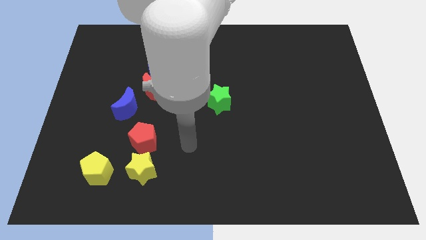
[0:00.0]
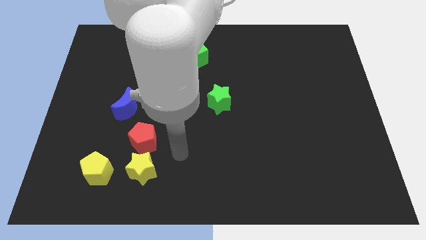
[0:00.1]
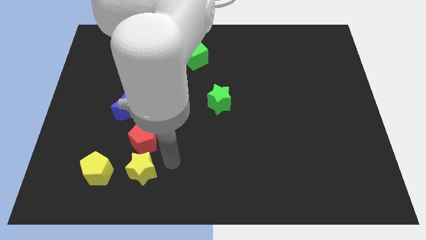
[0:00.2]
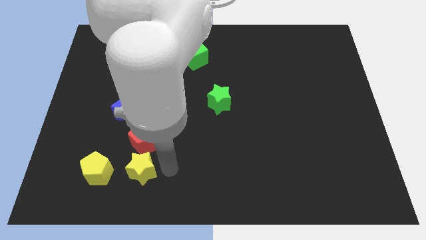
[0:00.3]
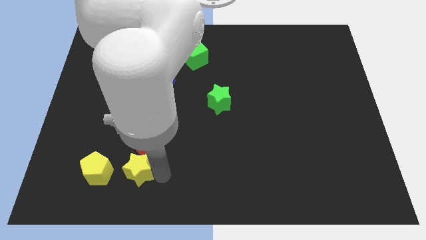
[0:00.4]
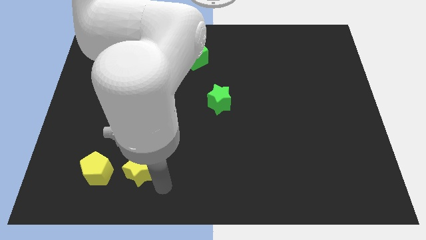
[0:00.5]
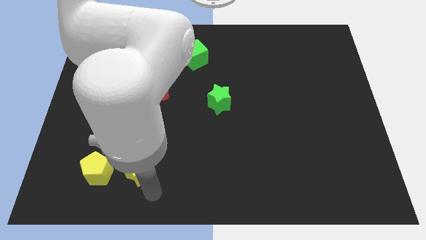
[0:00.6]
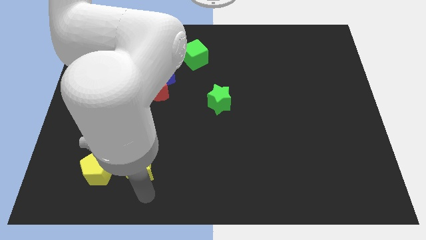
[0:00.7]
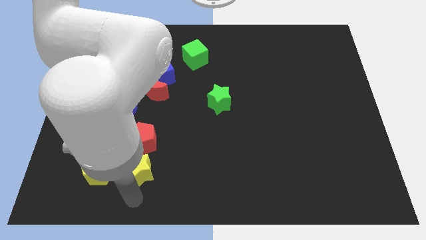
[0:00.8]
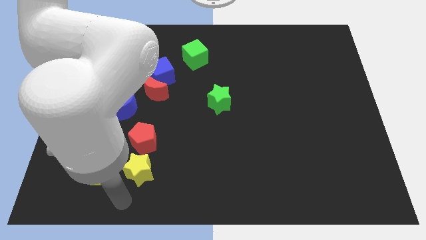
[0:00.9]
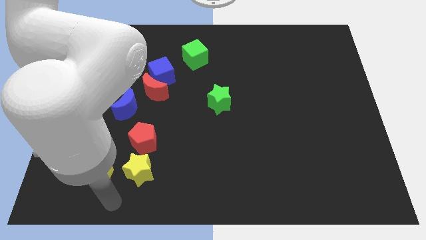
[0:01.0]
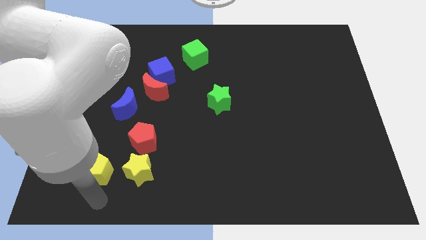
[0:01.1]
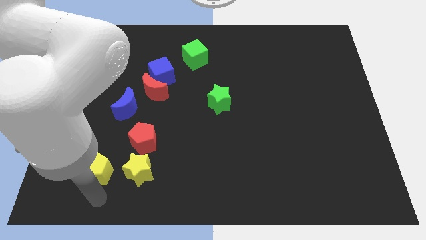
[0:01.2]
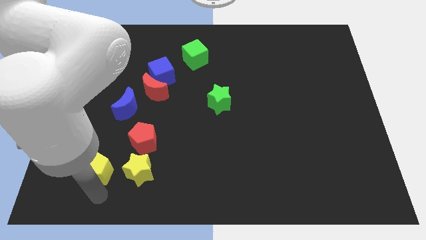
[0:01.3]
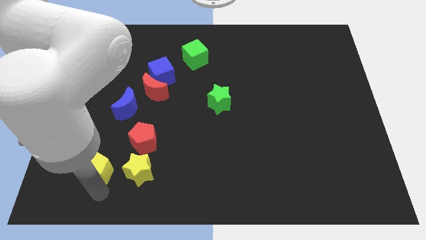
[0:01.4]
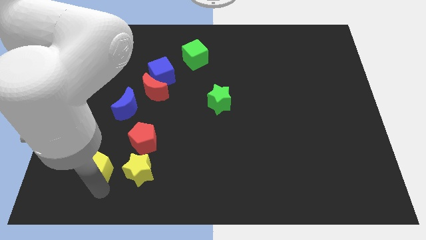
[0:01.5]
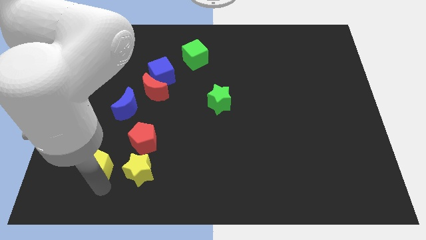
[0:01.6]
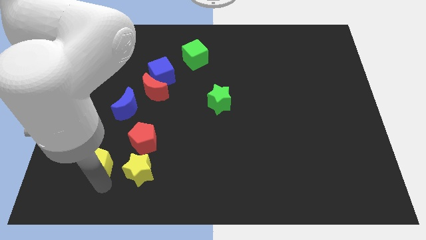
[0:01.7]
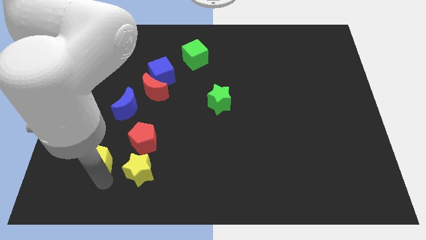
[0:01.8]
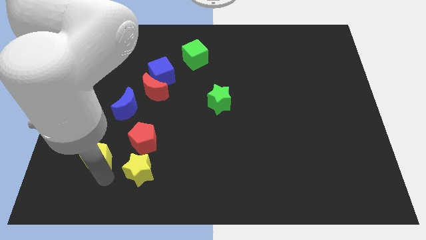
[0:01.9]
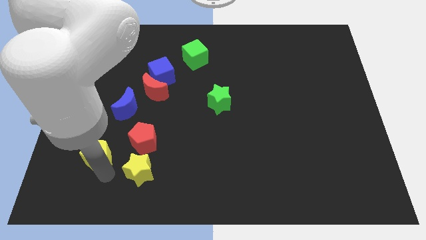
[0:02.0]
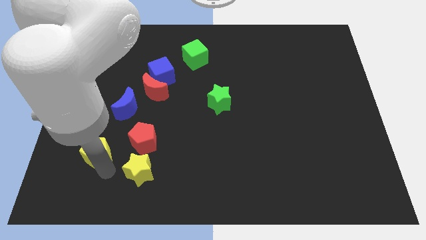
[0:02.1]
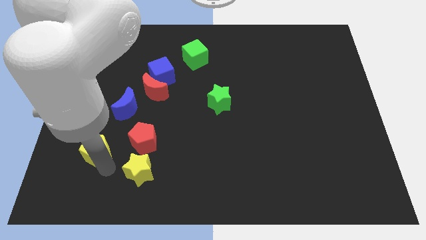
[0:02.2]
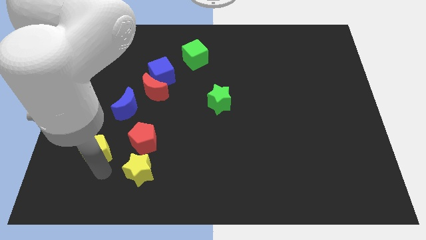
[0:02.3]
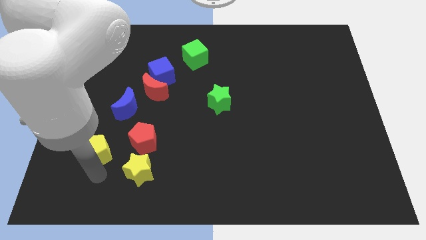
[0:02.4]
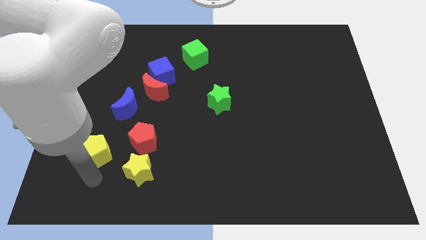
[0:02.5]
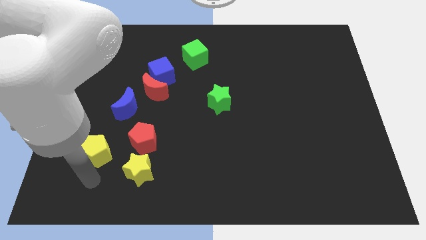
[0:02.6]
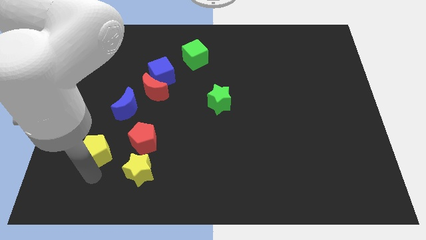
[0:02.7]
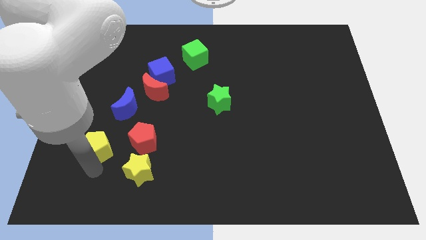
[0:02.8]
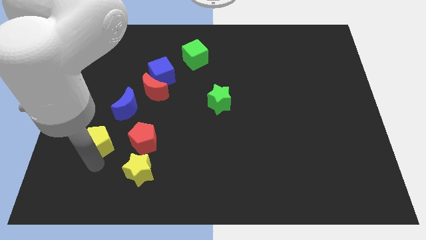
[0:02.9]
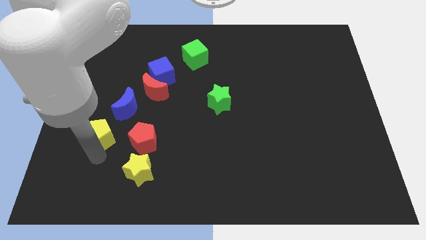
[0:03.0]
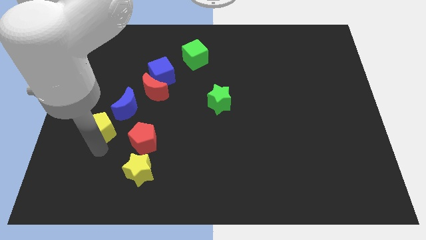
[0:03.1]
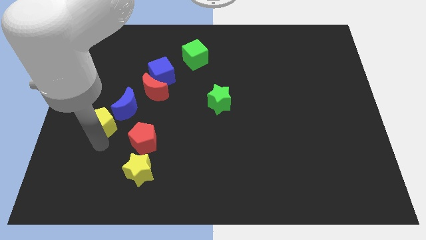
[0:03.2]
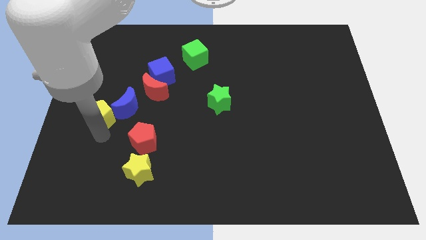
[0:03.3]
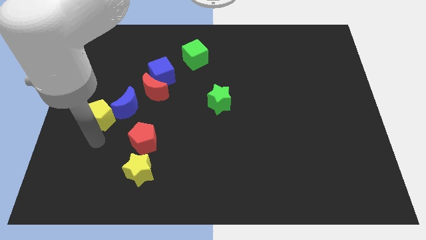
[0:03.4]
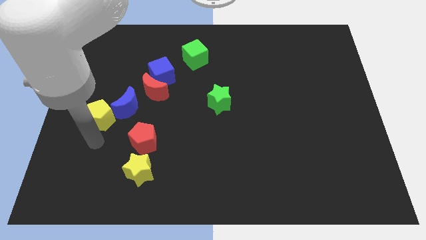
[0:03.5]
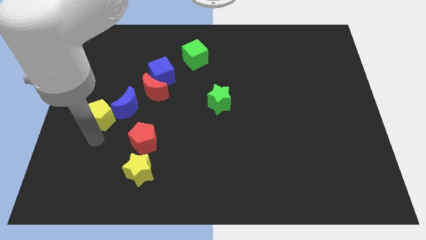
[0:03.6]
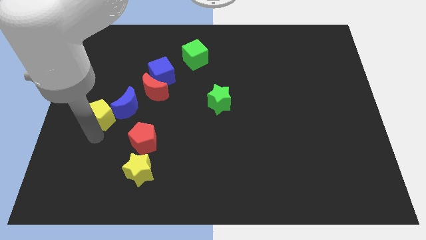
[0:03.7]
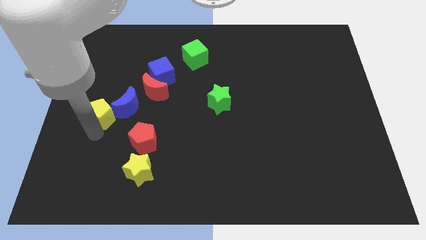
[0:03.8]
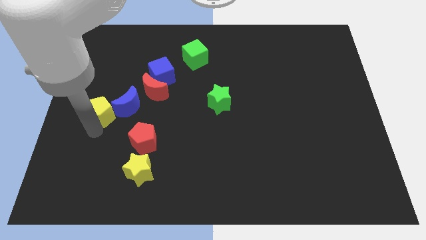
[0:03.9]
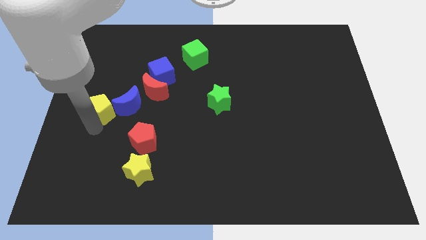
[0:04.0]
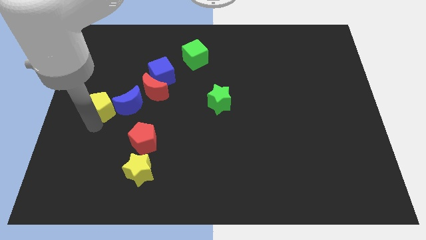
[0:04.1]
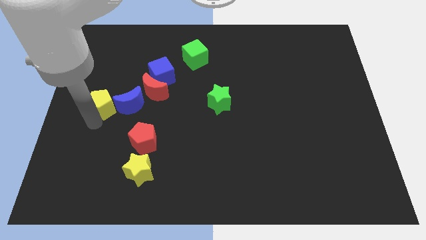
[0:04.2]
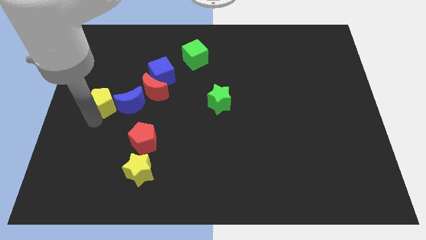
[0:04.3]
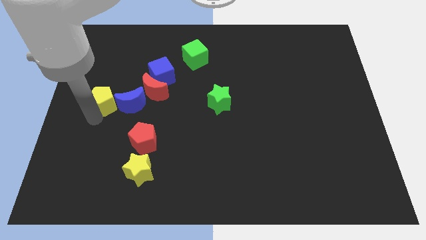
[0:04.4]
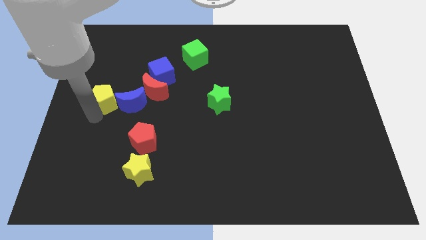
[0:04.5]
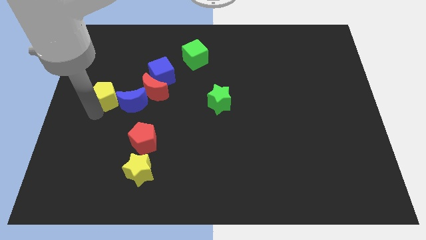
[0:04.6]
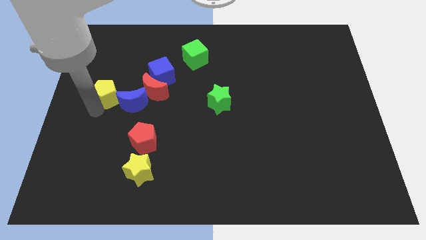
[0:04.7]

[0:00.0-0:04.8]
push the yellow pentagon up

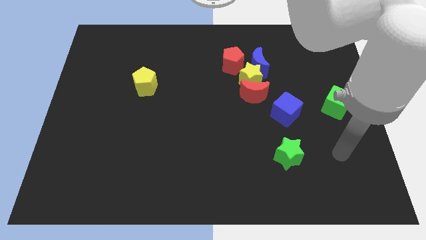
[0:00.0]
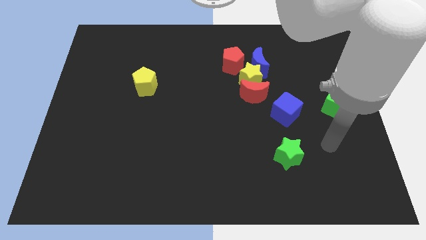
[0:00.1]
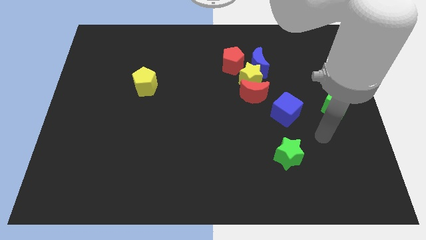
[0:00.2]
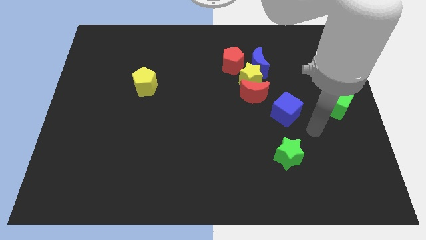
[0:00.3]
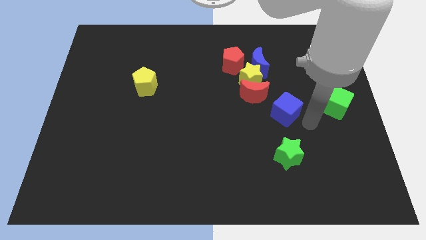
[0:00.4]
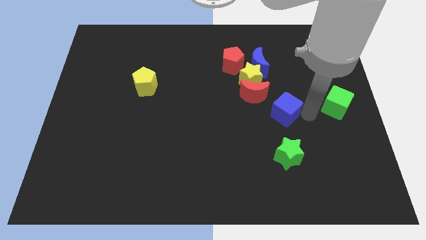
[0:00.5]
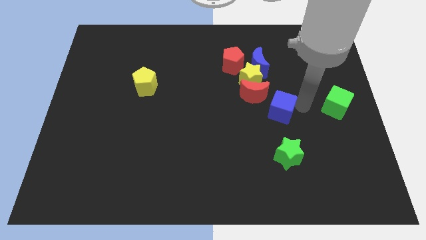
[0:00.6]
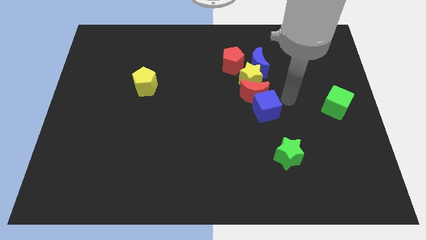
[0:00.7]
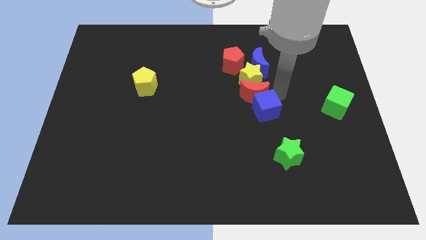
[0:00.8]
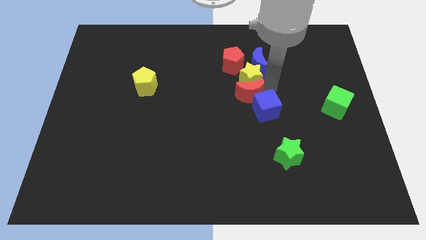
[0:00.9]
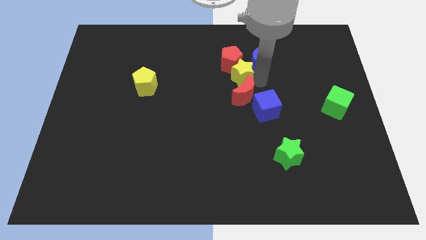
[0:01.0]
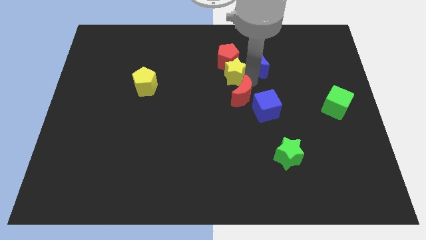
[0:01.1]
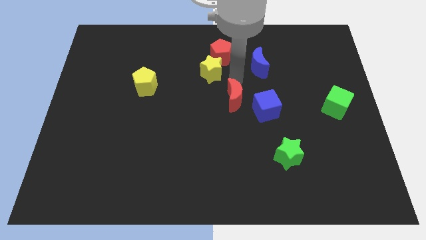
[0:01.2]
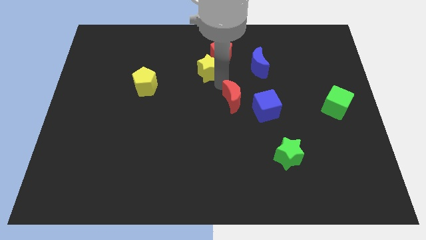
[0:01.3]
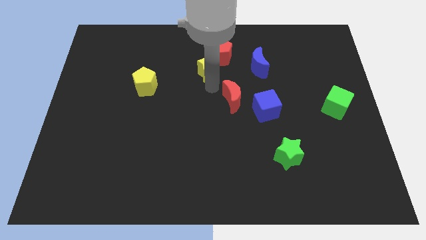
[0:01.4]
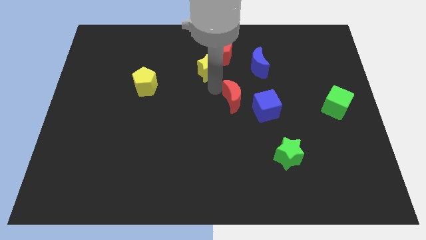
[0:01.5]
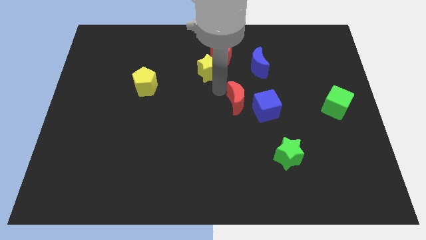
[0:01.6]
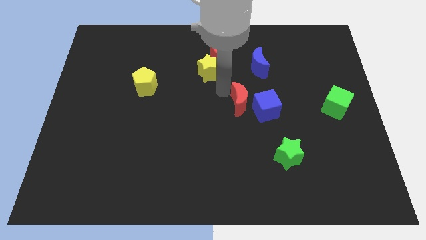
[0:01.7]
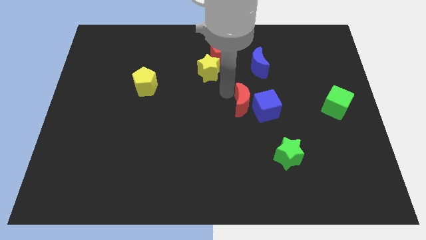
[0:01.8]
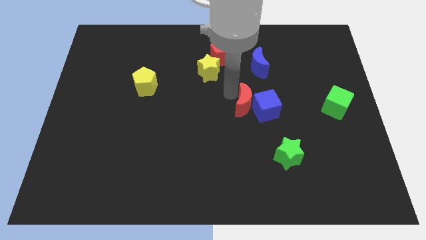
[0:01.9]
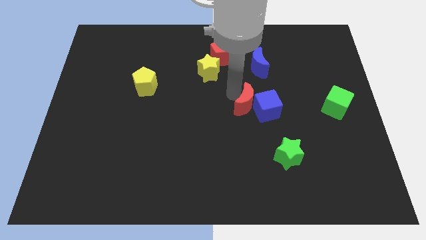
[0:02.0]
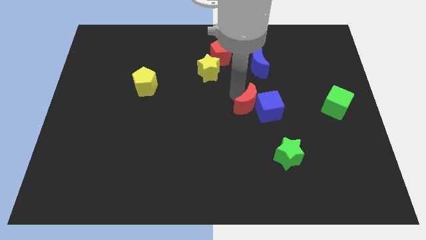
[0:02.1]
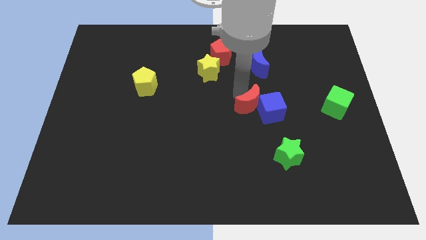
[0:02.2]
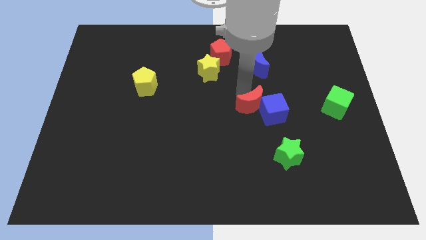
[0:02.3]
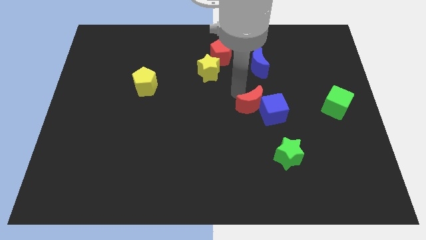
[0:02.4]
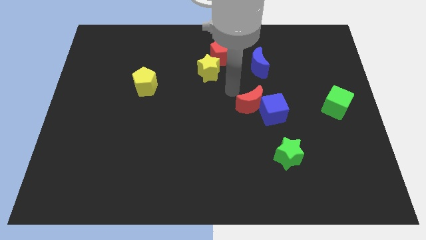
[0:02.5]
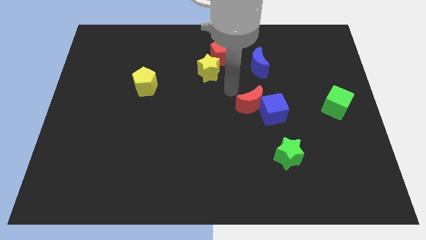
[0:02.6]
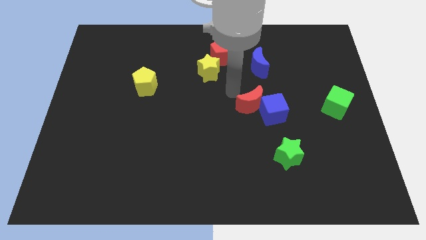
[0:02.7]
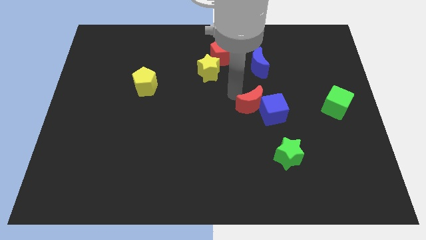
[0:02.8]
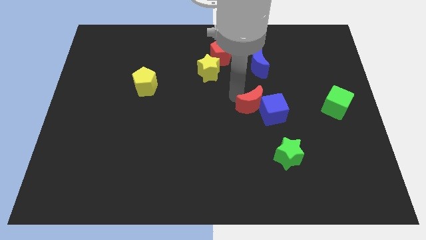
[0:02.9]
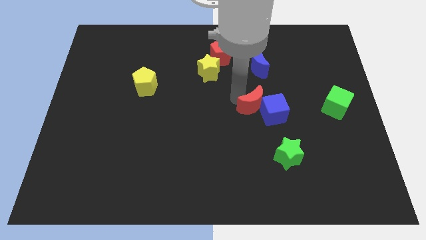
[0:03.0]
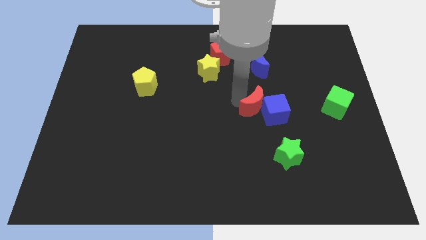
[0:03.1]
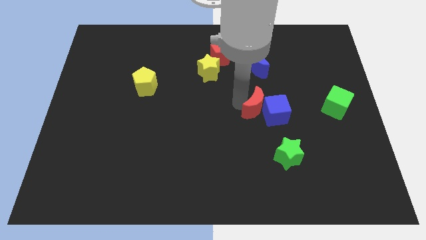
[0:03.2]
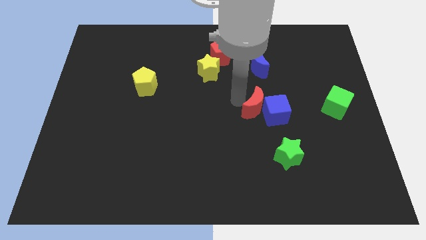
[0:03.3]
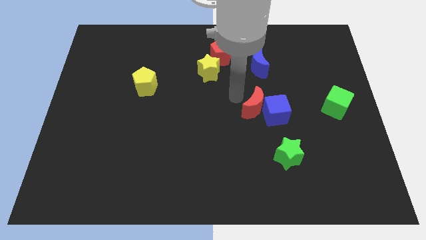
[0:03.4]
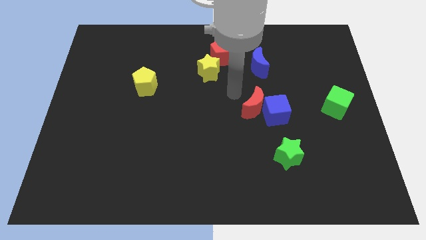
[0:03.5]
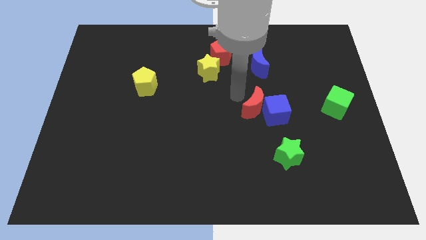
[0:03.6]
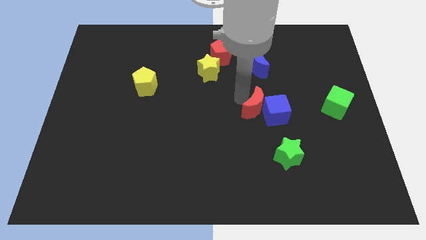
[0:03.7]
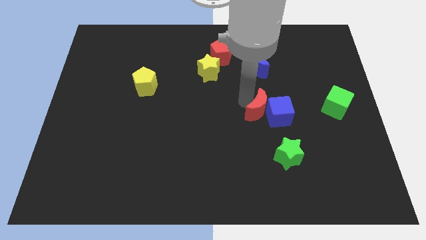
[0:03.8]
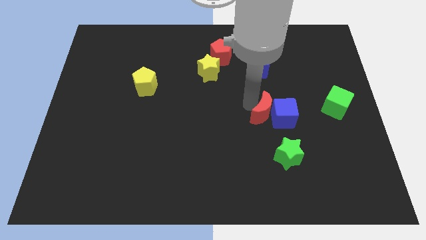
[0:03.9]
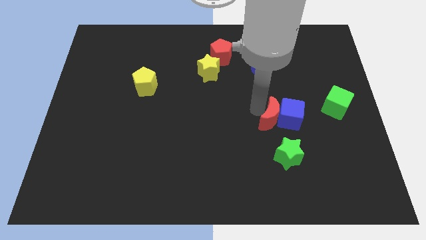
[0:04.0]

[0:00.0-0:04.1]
slightly push the red moon downwards and to the right diagonally
